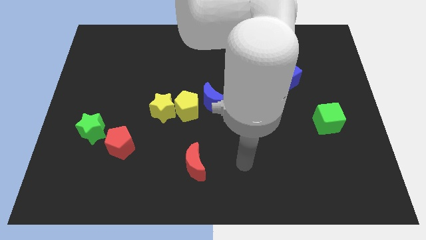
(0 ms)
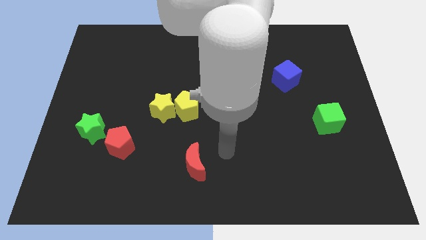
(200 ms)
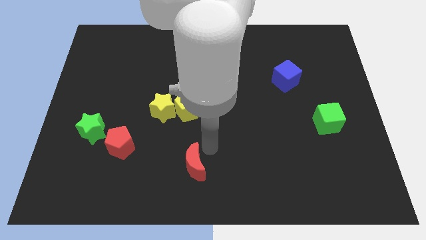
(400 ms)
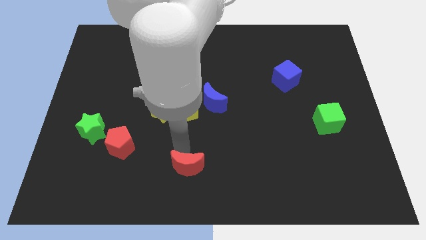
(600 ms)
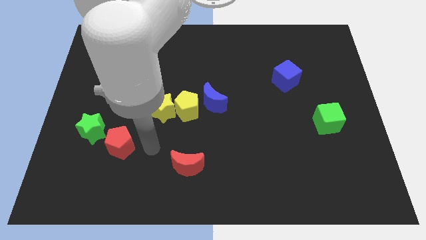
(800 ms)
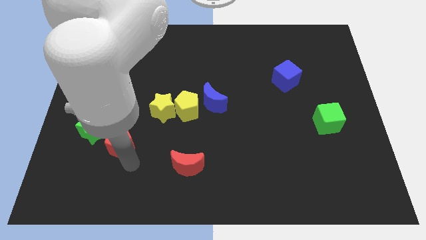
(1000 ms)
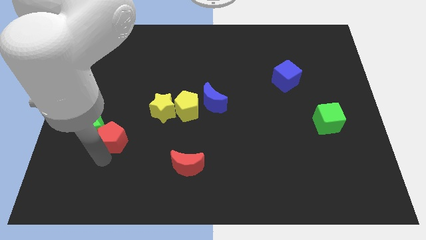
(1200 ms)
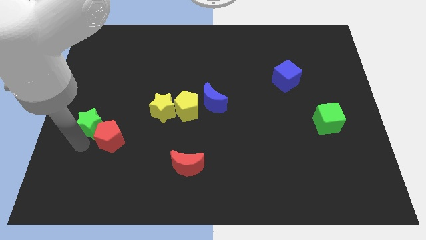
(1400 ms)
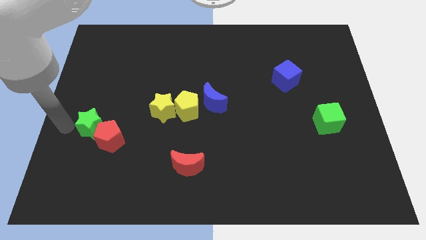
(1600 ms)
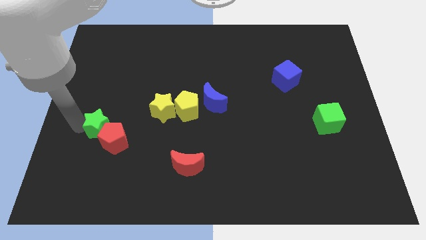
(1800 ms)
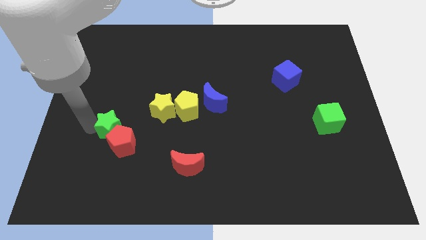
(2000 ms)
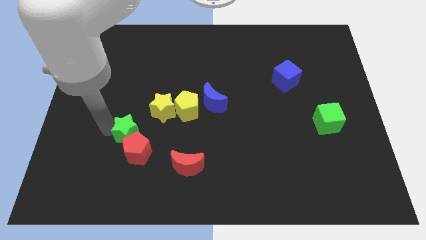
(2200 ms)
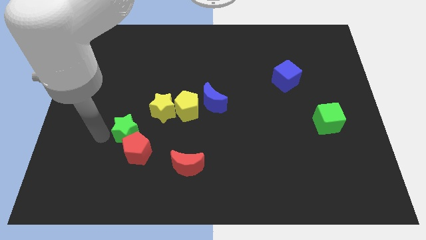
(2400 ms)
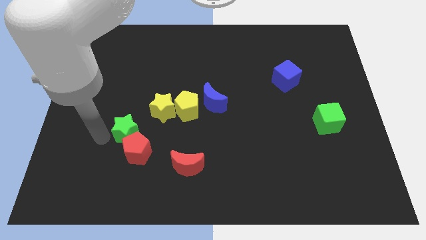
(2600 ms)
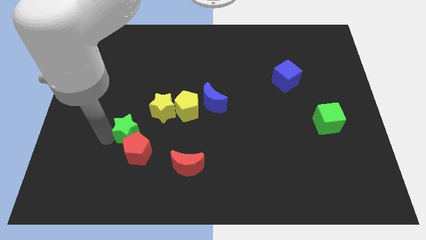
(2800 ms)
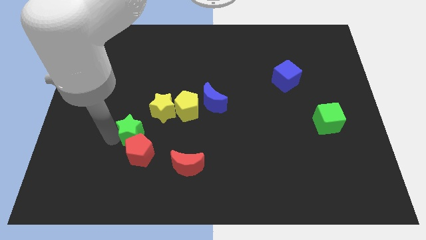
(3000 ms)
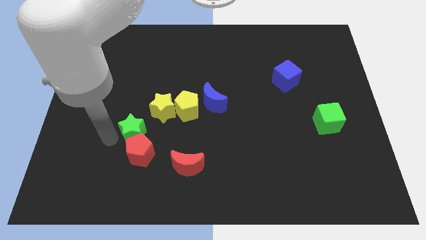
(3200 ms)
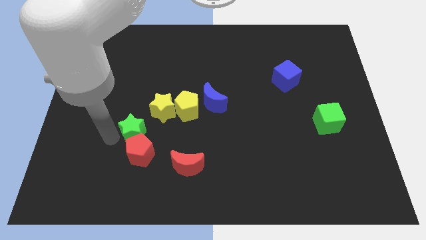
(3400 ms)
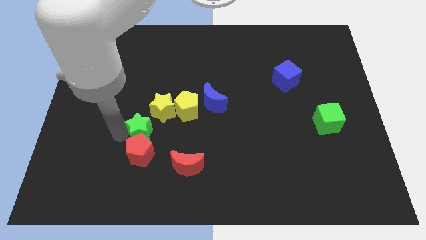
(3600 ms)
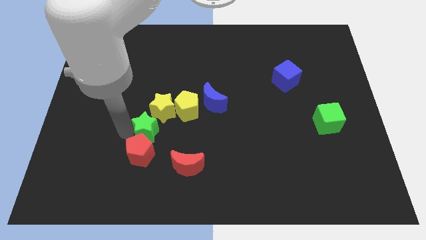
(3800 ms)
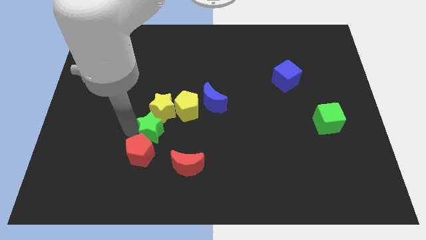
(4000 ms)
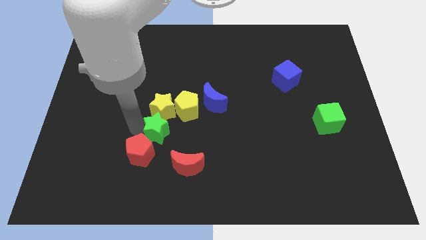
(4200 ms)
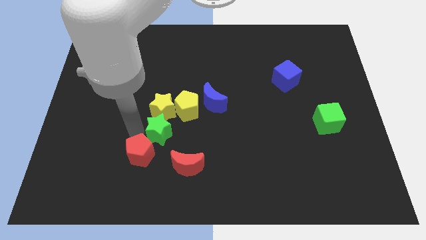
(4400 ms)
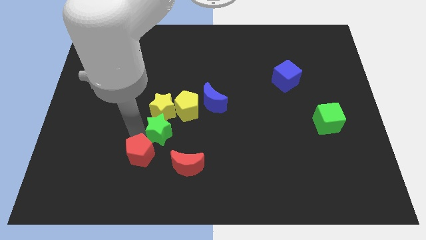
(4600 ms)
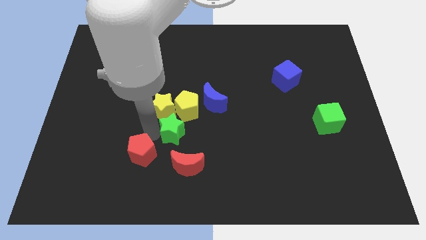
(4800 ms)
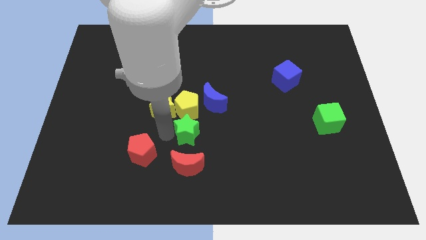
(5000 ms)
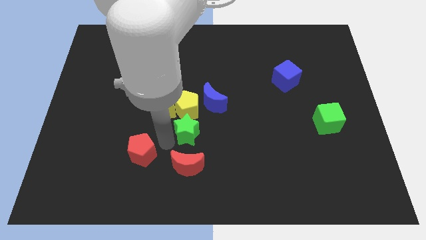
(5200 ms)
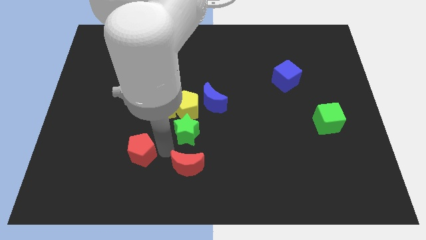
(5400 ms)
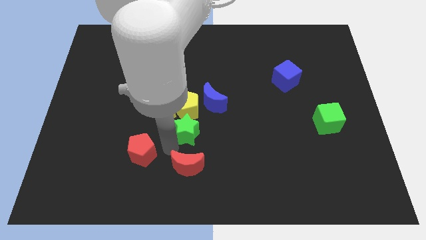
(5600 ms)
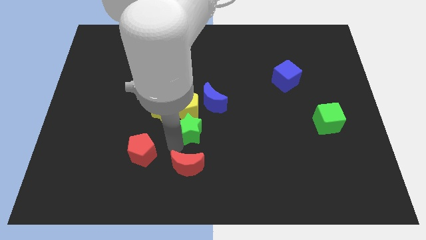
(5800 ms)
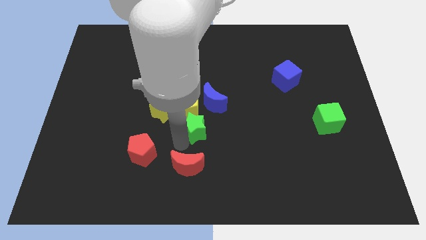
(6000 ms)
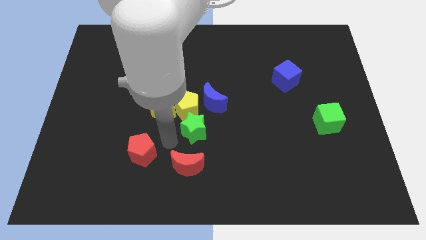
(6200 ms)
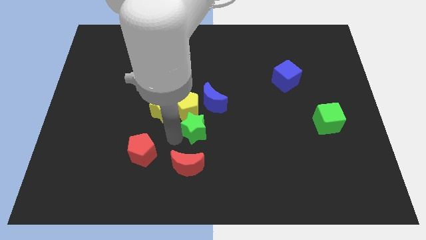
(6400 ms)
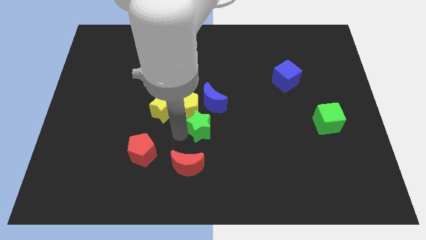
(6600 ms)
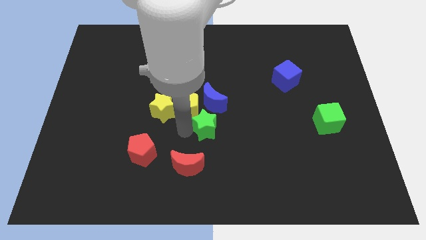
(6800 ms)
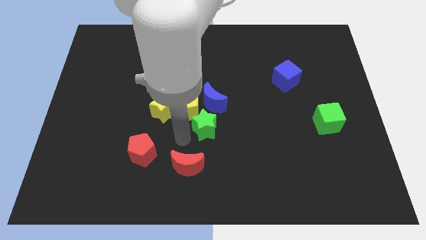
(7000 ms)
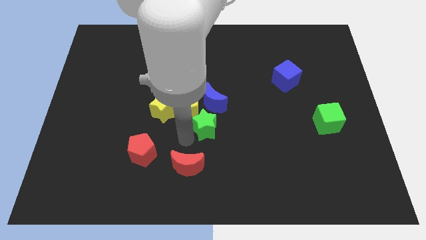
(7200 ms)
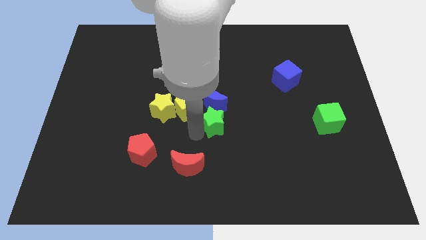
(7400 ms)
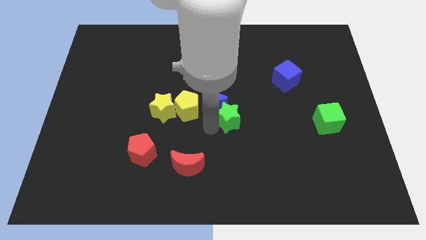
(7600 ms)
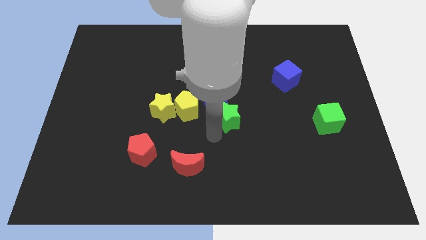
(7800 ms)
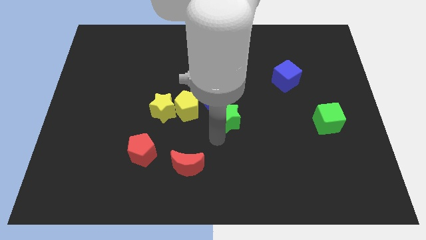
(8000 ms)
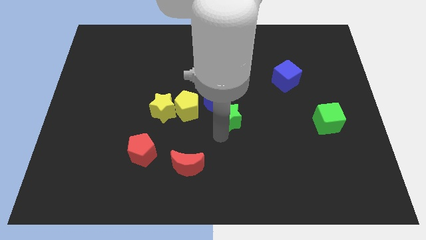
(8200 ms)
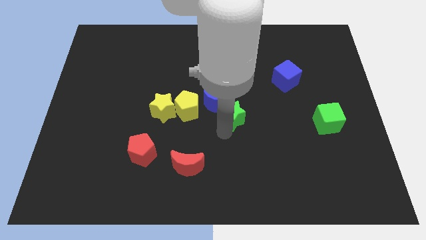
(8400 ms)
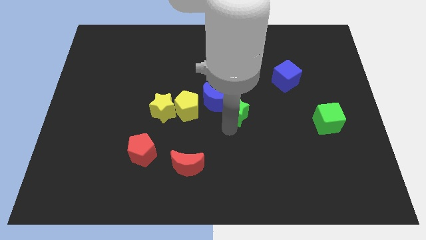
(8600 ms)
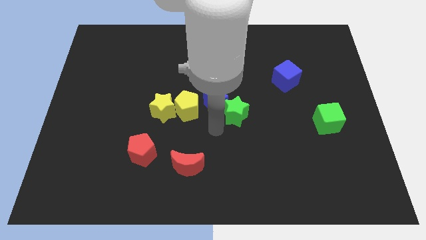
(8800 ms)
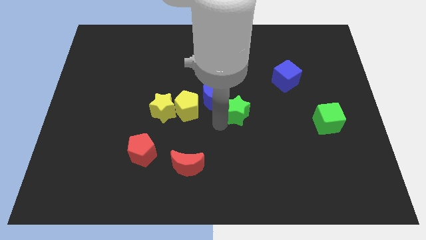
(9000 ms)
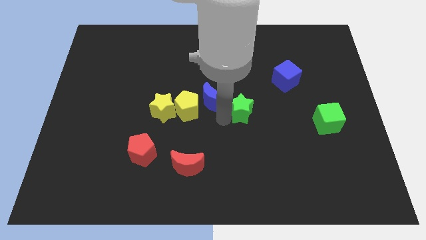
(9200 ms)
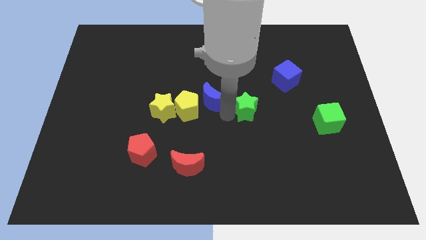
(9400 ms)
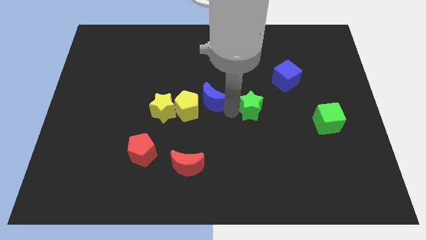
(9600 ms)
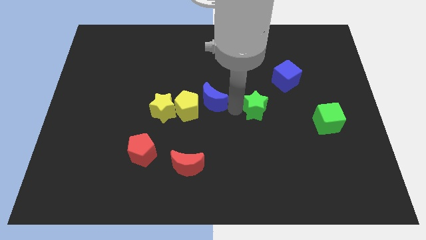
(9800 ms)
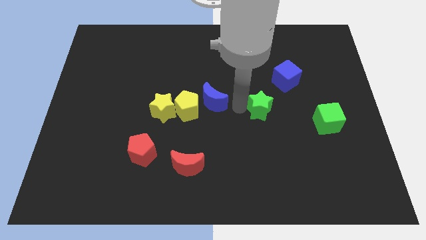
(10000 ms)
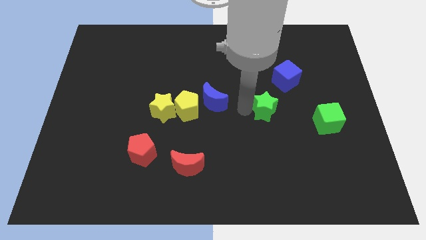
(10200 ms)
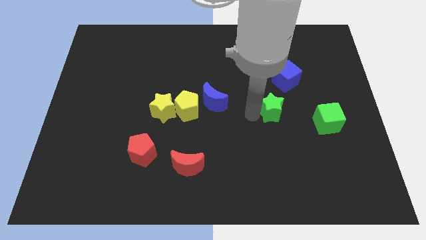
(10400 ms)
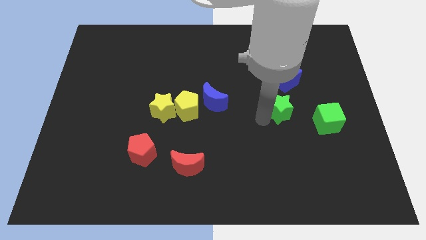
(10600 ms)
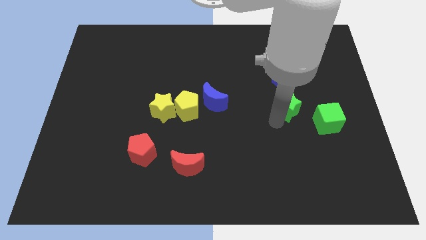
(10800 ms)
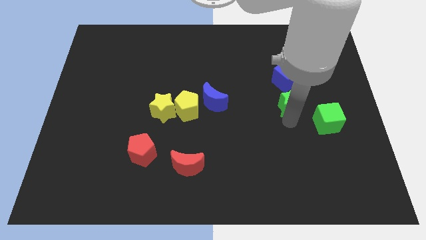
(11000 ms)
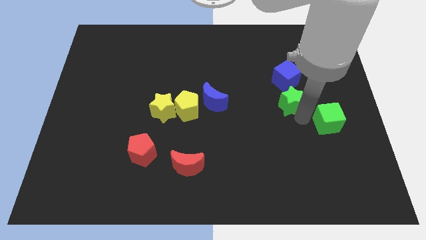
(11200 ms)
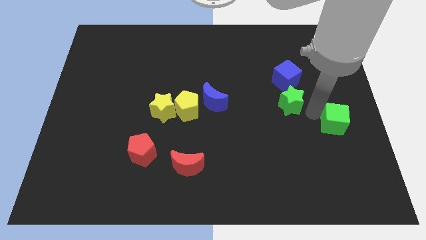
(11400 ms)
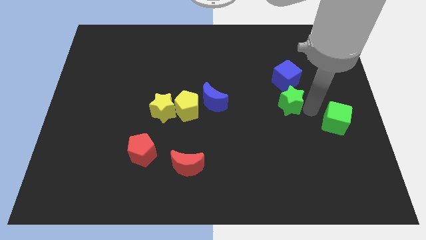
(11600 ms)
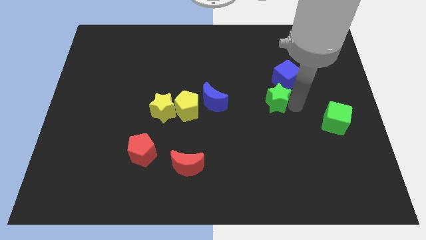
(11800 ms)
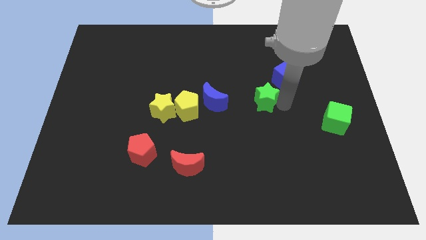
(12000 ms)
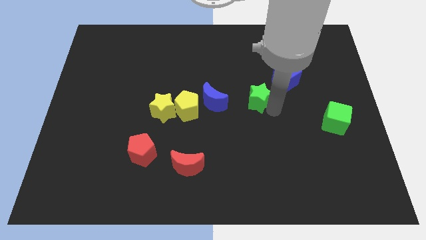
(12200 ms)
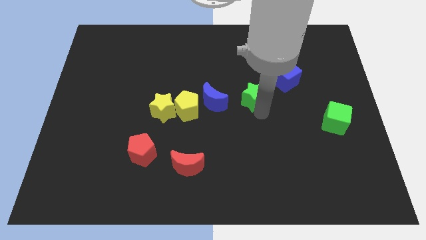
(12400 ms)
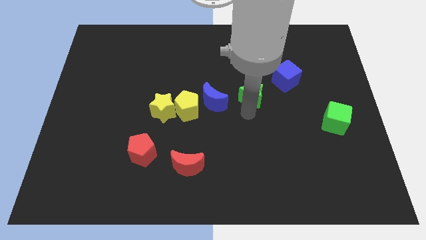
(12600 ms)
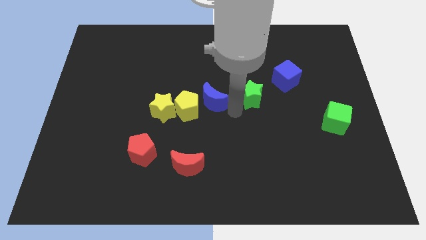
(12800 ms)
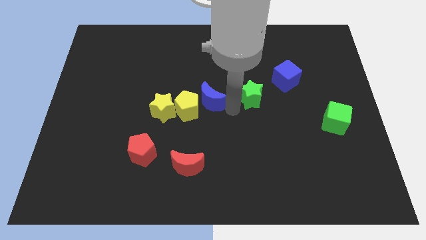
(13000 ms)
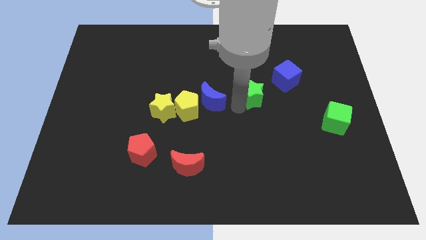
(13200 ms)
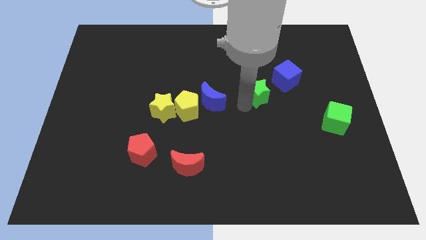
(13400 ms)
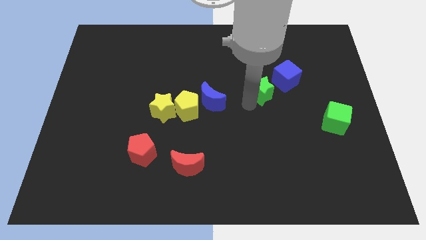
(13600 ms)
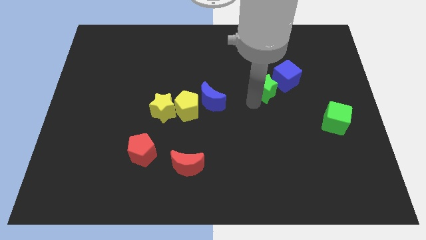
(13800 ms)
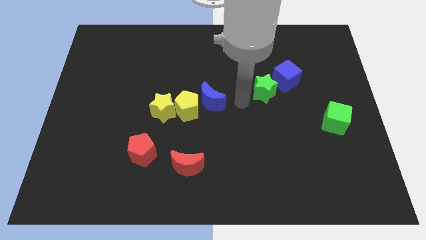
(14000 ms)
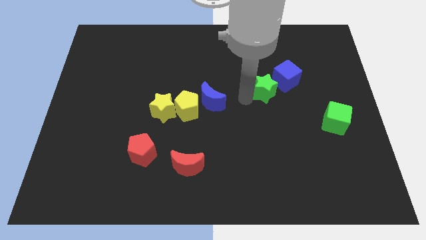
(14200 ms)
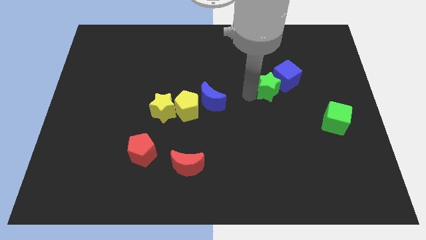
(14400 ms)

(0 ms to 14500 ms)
push the green star to the blue cube

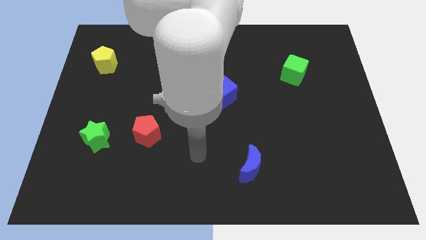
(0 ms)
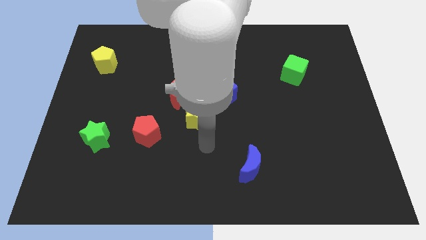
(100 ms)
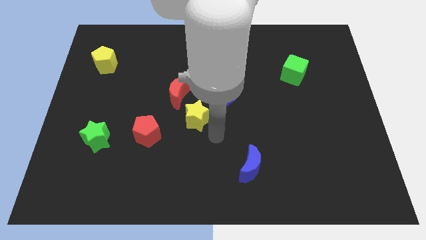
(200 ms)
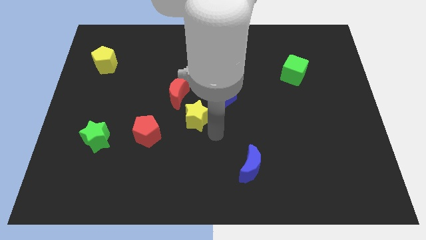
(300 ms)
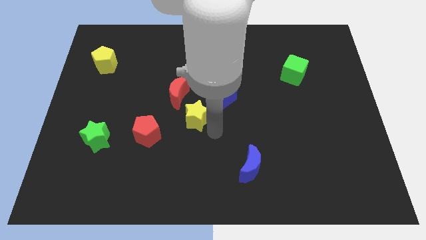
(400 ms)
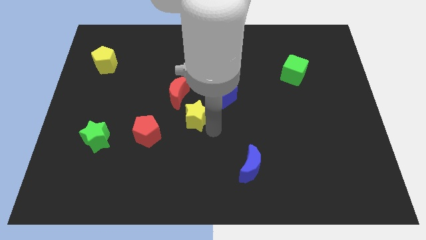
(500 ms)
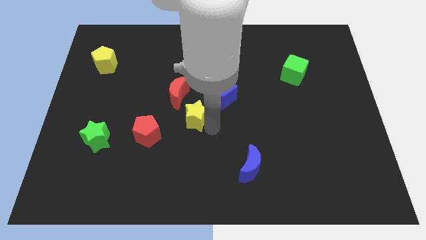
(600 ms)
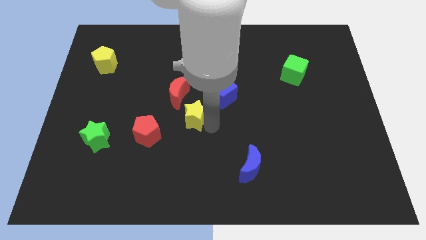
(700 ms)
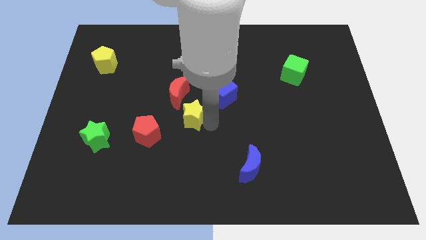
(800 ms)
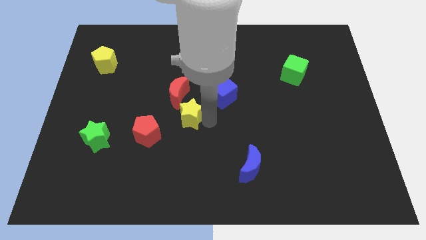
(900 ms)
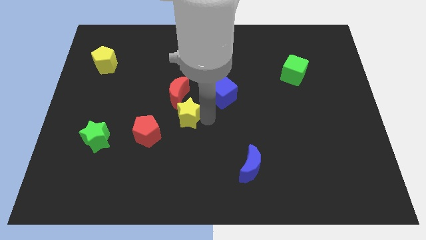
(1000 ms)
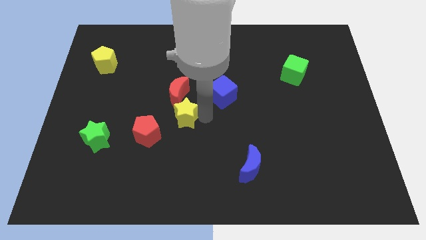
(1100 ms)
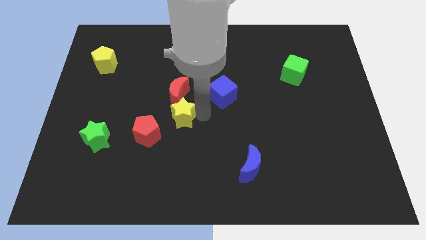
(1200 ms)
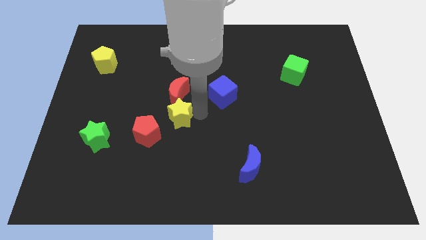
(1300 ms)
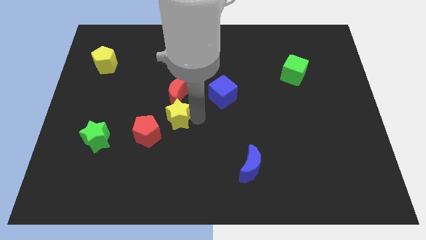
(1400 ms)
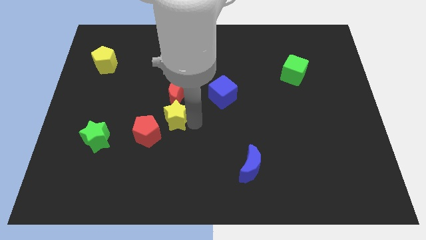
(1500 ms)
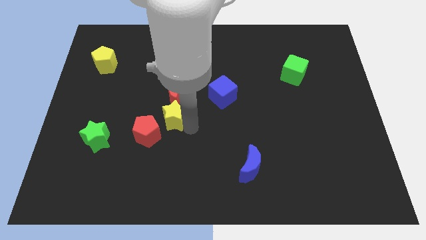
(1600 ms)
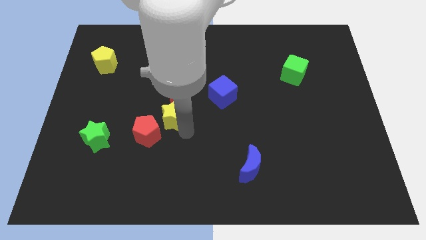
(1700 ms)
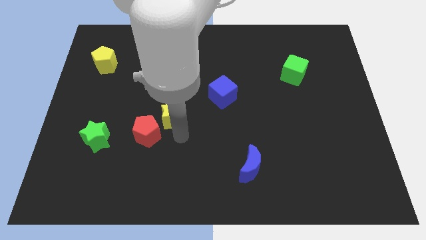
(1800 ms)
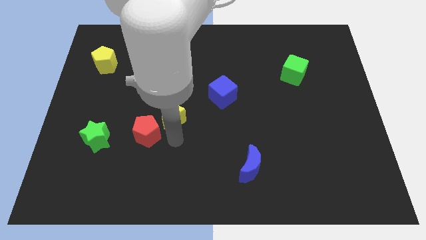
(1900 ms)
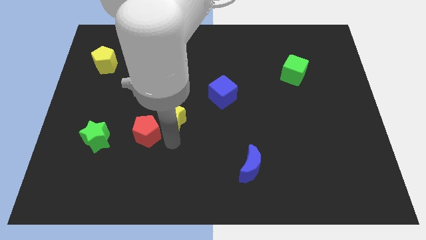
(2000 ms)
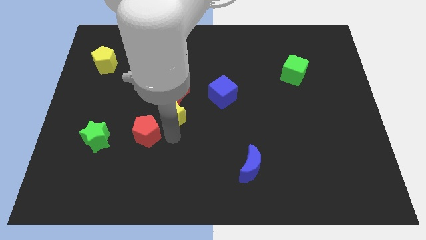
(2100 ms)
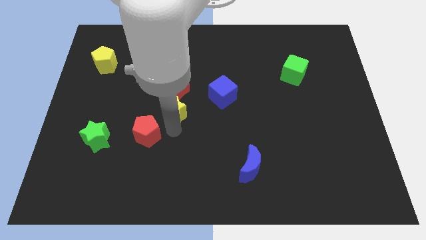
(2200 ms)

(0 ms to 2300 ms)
push the yellow star towards the red moon
